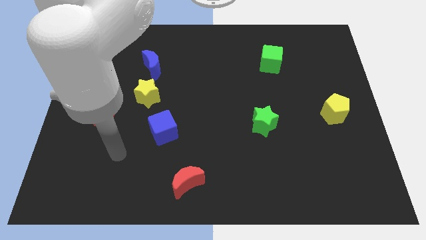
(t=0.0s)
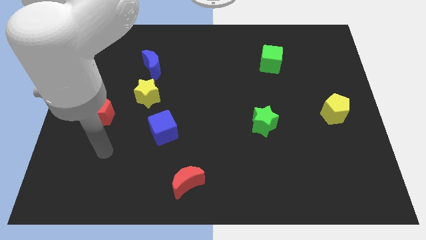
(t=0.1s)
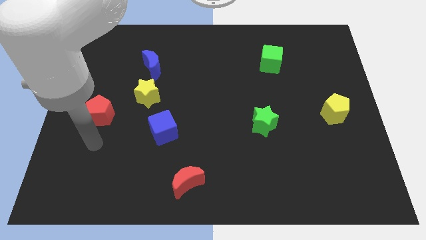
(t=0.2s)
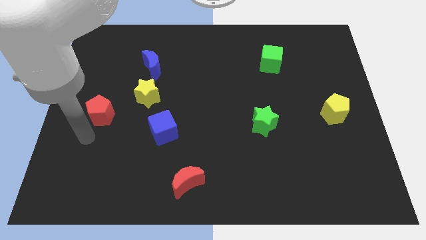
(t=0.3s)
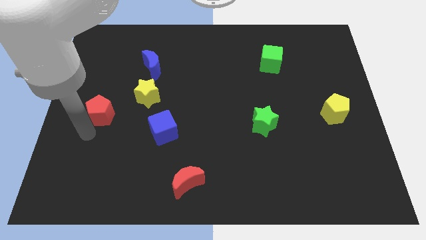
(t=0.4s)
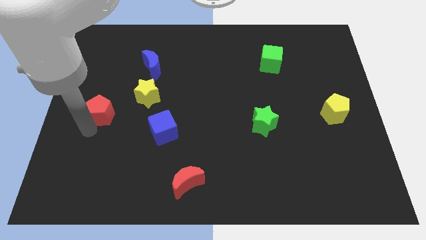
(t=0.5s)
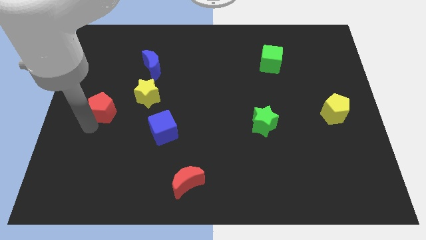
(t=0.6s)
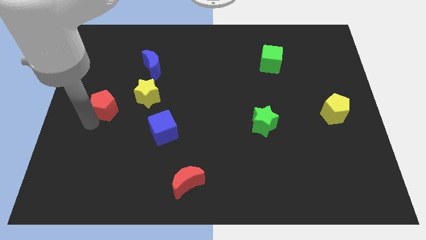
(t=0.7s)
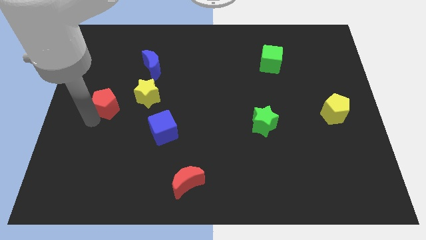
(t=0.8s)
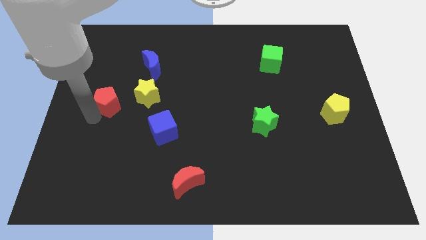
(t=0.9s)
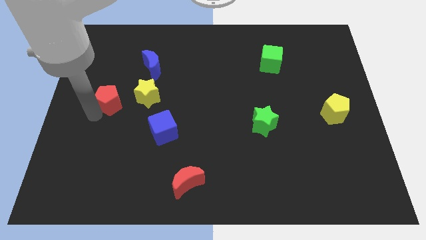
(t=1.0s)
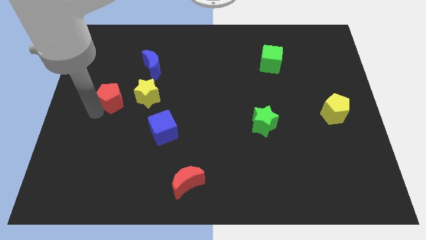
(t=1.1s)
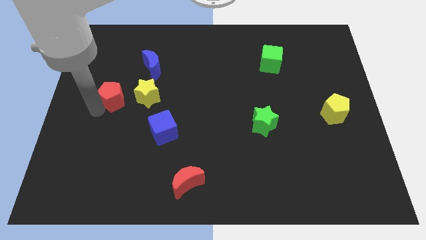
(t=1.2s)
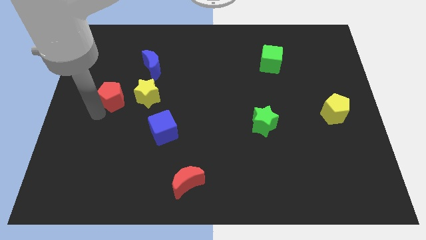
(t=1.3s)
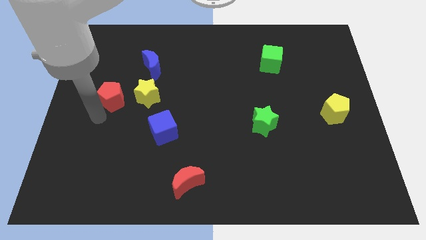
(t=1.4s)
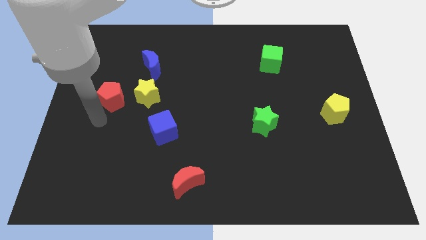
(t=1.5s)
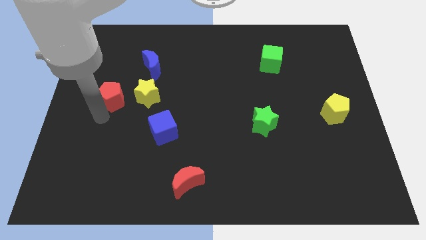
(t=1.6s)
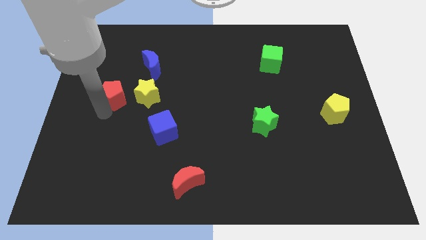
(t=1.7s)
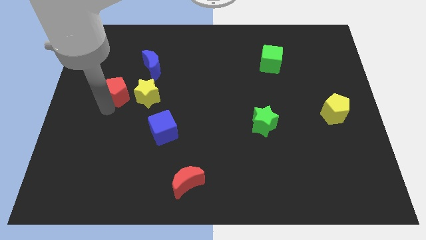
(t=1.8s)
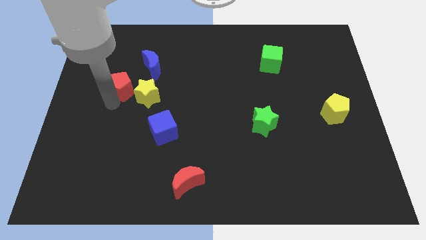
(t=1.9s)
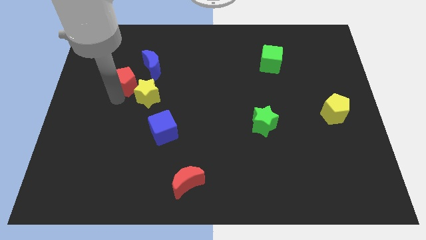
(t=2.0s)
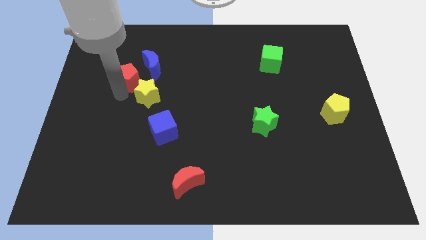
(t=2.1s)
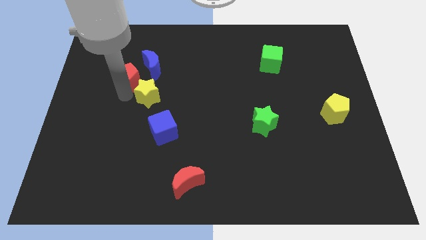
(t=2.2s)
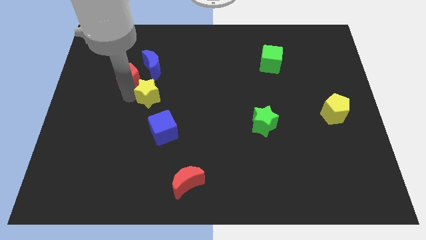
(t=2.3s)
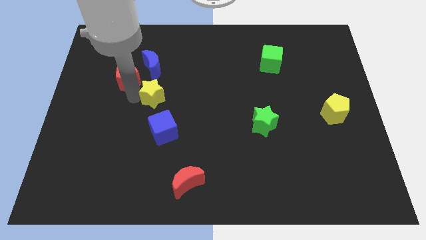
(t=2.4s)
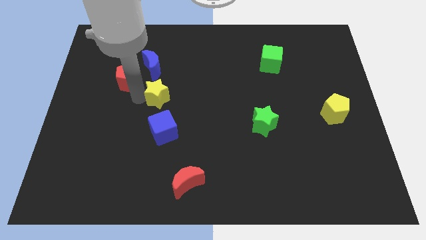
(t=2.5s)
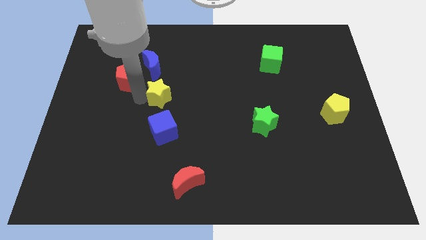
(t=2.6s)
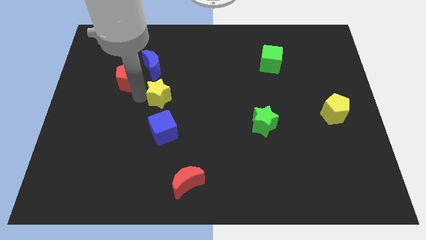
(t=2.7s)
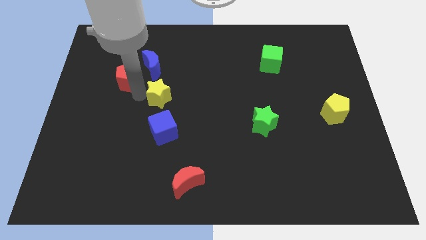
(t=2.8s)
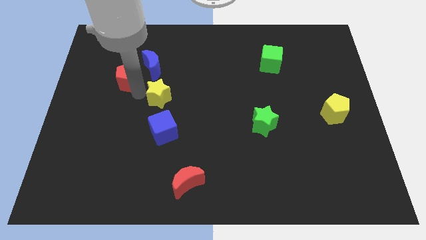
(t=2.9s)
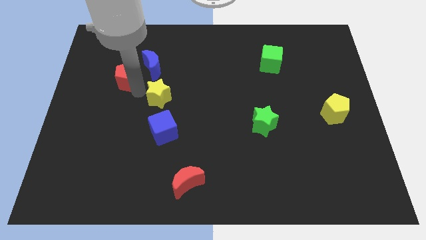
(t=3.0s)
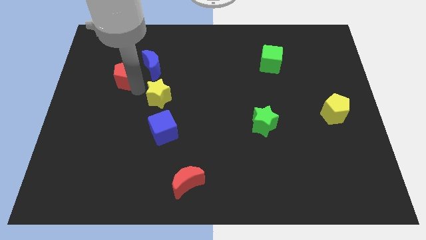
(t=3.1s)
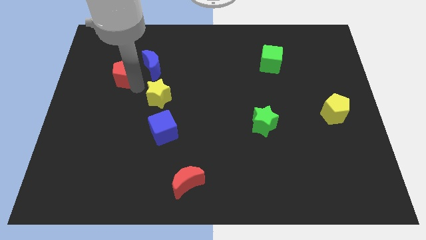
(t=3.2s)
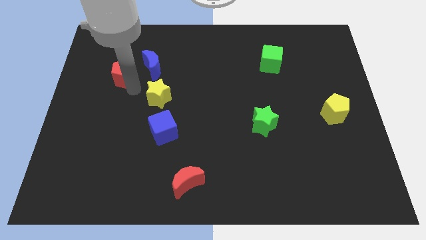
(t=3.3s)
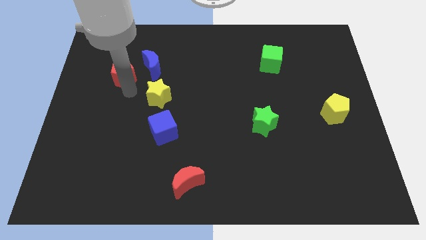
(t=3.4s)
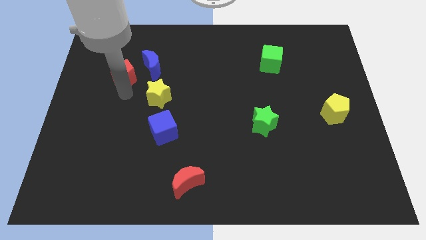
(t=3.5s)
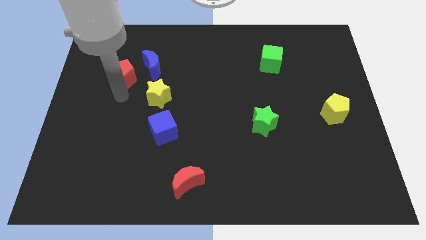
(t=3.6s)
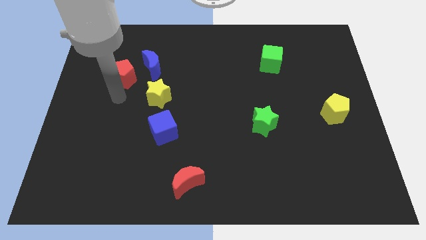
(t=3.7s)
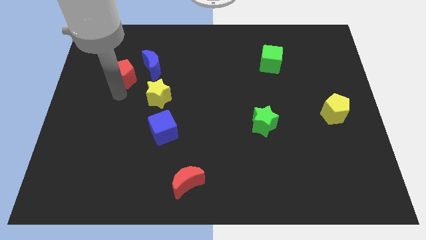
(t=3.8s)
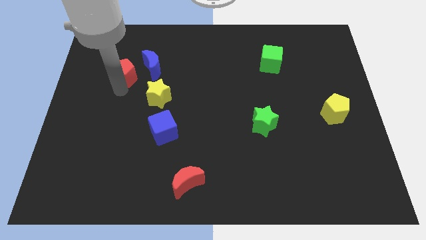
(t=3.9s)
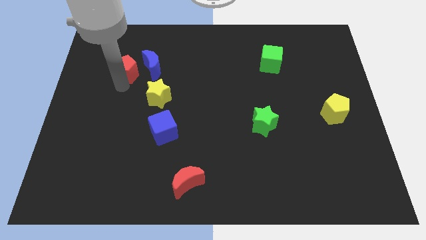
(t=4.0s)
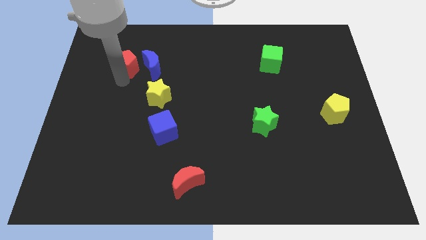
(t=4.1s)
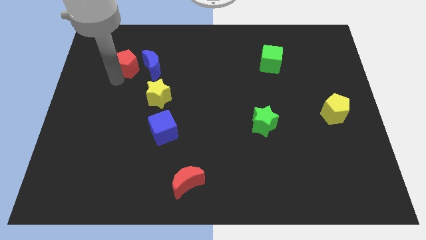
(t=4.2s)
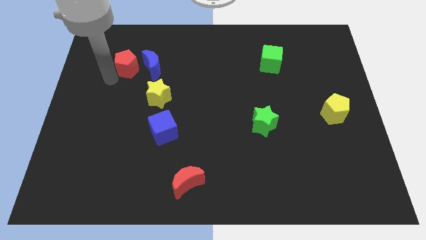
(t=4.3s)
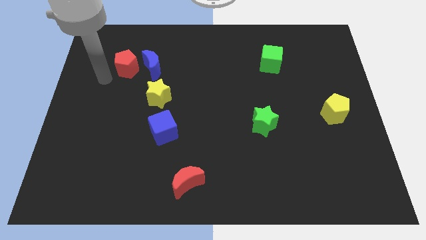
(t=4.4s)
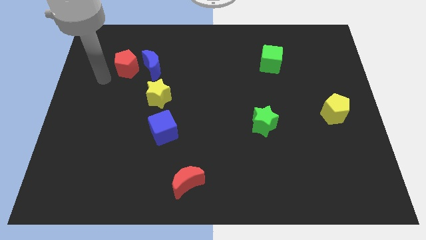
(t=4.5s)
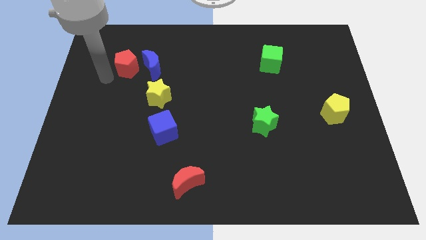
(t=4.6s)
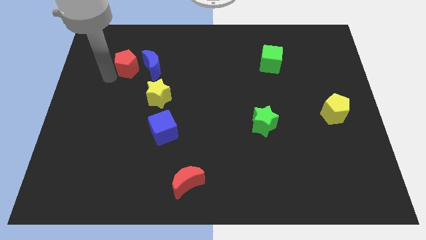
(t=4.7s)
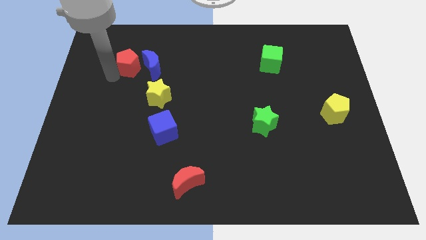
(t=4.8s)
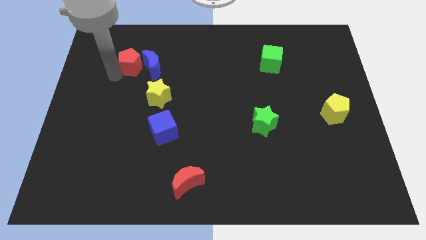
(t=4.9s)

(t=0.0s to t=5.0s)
push the red pentagon next to the blue moon

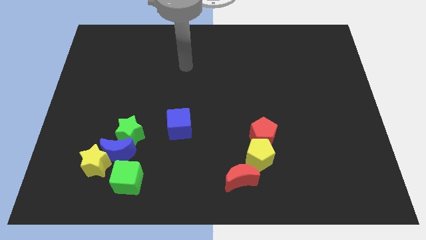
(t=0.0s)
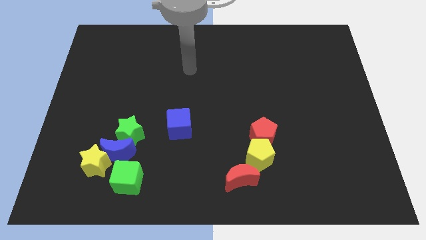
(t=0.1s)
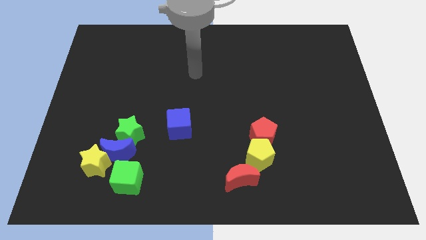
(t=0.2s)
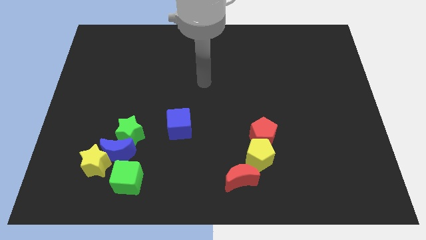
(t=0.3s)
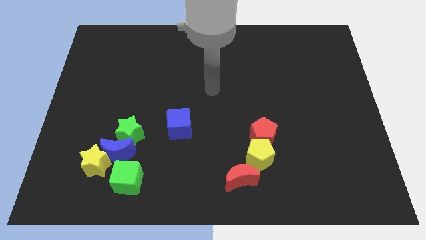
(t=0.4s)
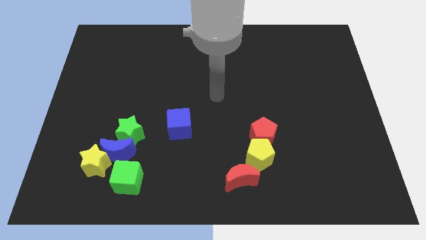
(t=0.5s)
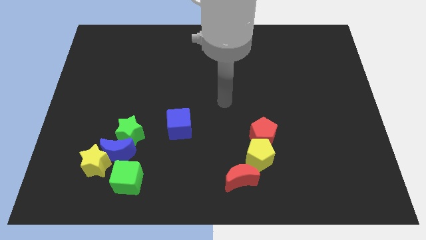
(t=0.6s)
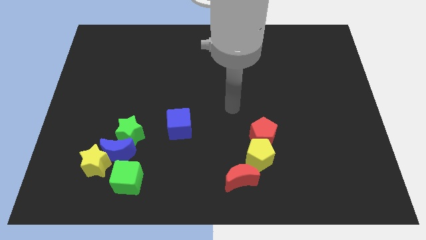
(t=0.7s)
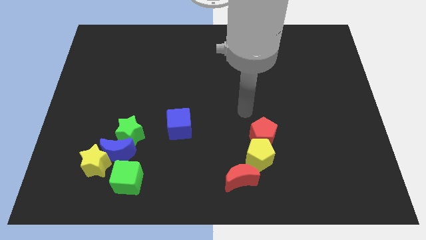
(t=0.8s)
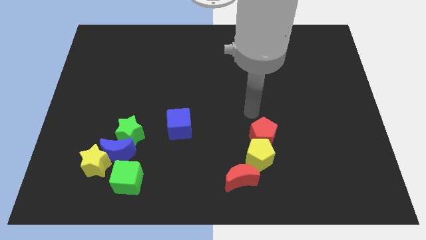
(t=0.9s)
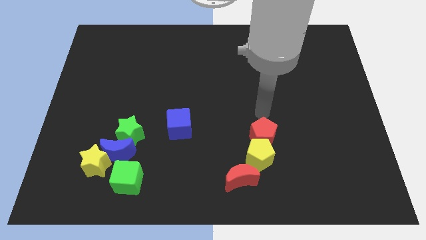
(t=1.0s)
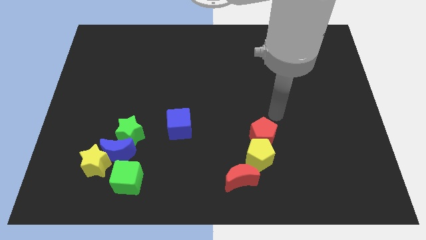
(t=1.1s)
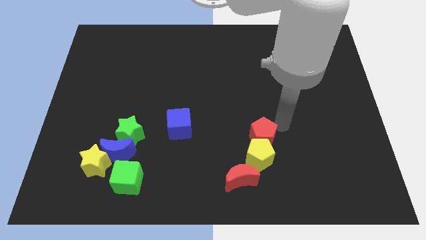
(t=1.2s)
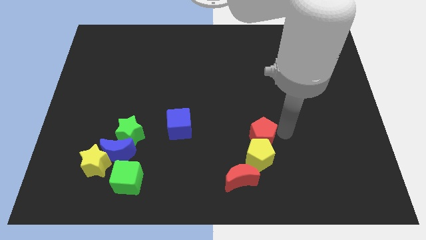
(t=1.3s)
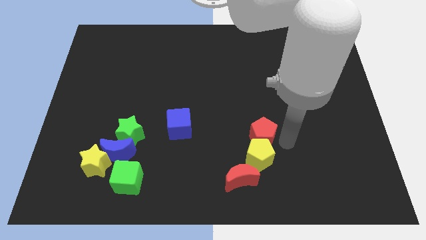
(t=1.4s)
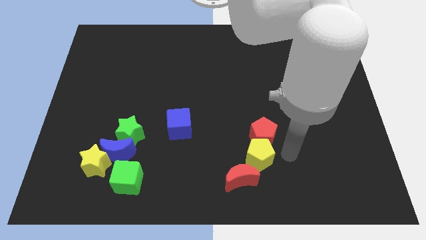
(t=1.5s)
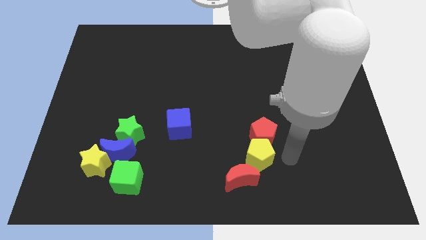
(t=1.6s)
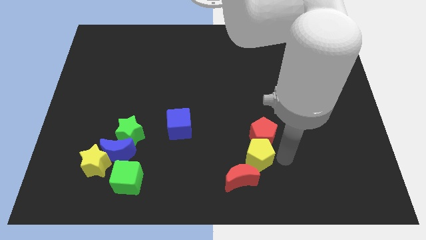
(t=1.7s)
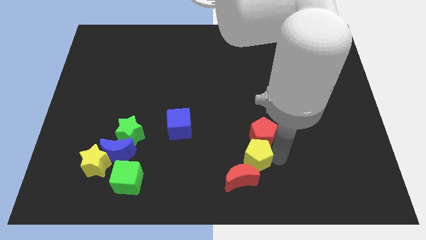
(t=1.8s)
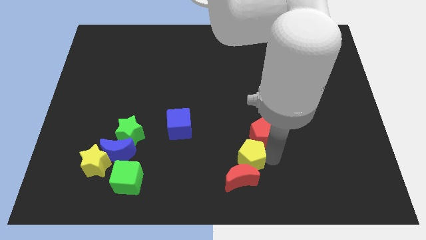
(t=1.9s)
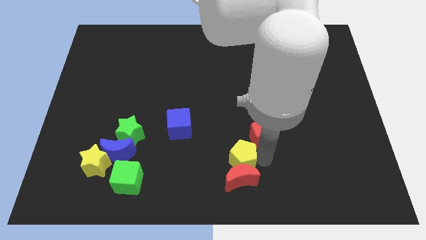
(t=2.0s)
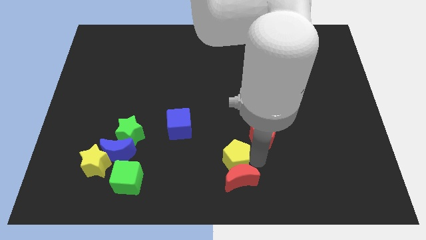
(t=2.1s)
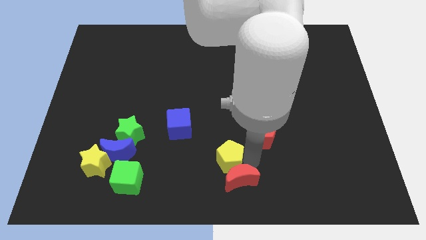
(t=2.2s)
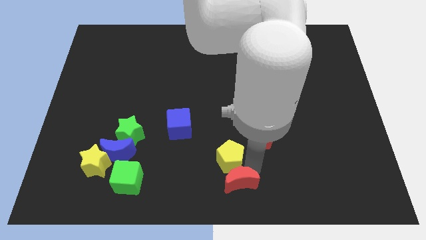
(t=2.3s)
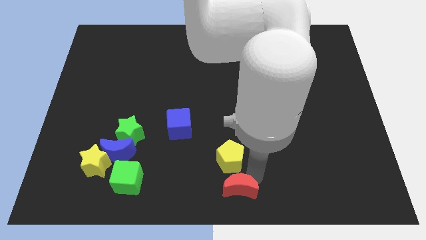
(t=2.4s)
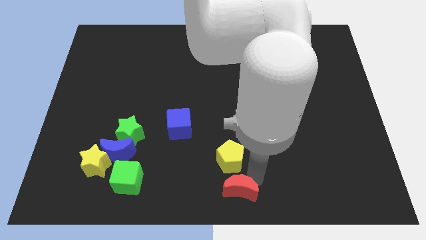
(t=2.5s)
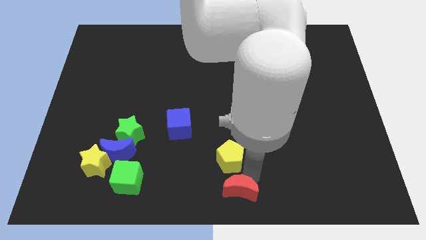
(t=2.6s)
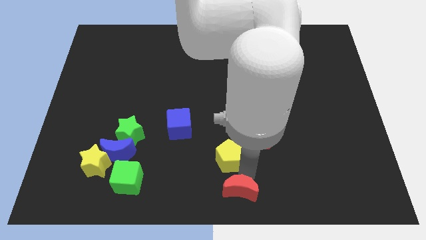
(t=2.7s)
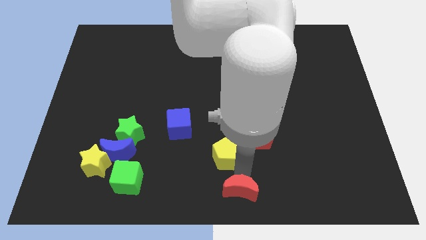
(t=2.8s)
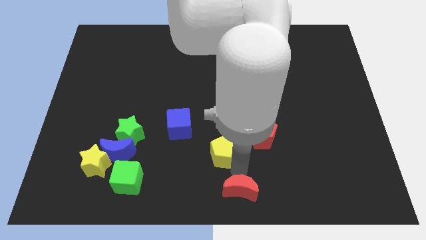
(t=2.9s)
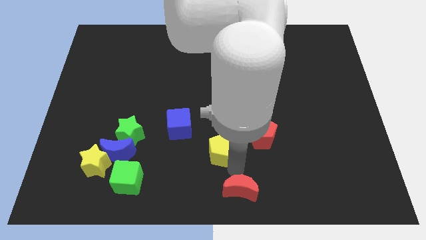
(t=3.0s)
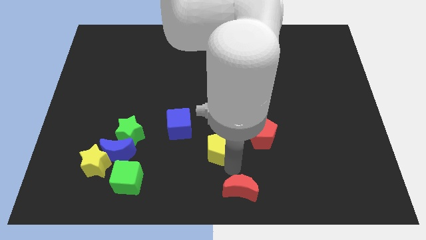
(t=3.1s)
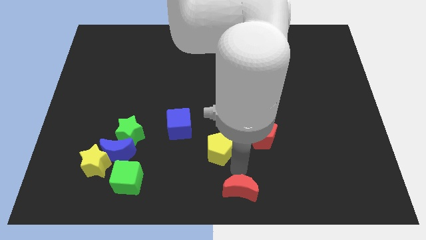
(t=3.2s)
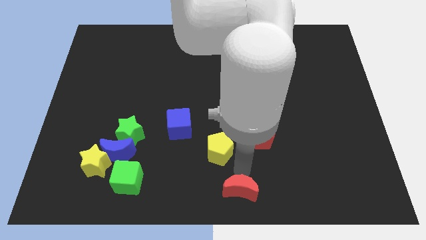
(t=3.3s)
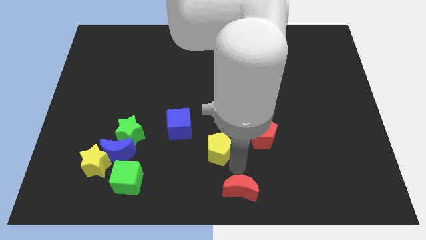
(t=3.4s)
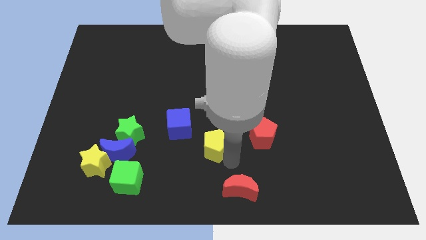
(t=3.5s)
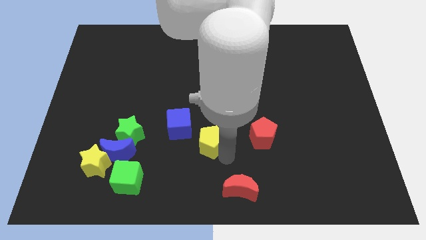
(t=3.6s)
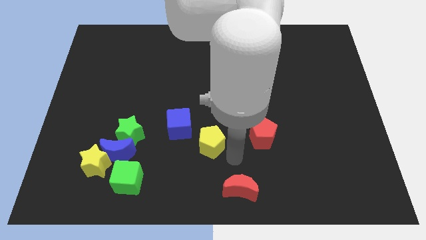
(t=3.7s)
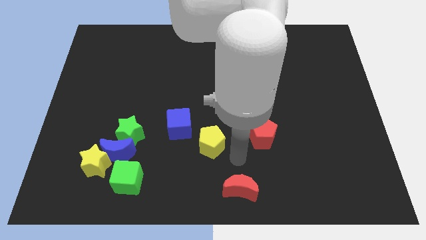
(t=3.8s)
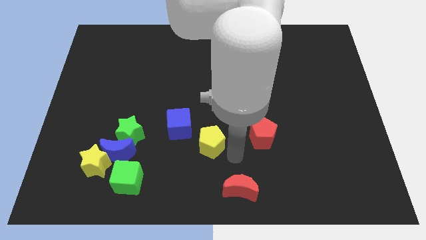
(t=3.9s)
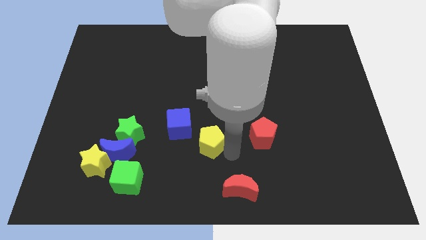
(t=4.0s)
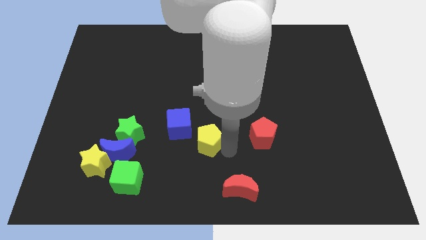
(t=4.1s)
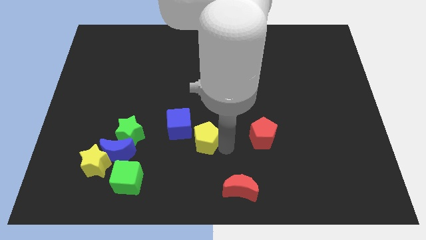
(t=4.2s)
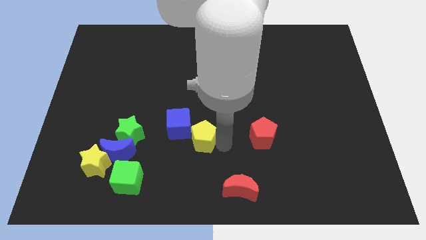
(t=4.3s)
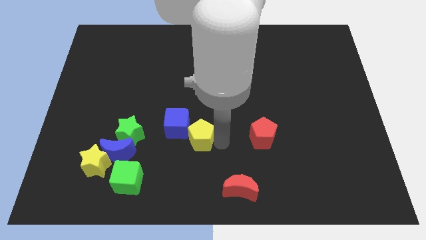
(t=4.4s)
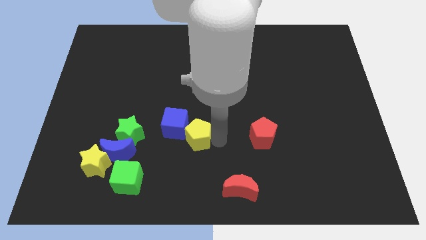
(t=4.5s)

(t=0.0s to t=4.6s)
move the yellow pentagon next to the blue cube
